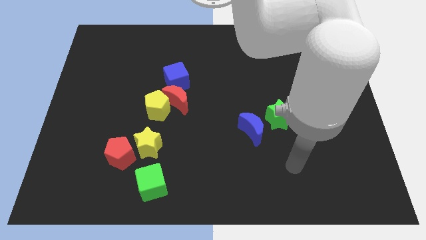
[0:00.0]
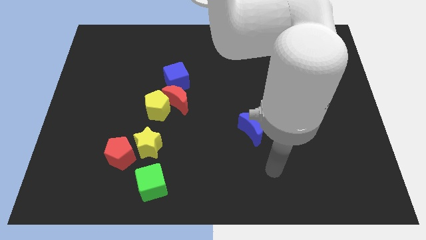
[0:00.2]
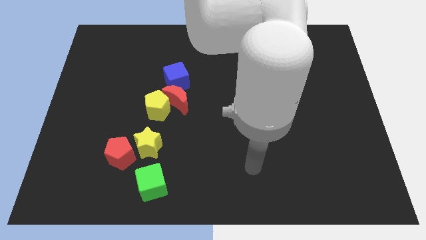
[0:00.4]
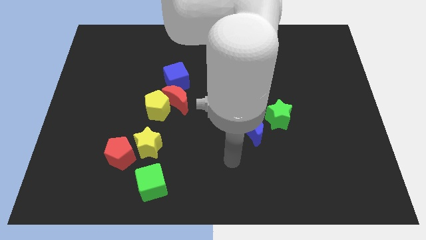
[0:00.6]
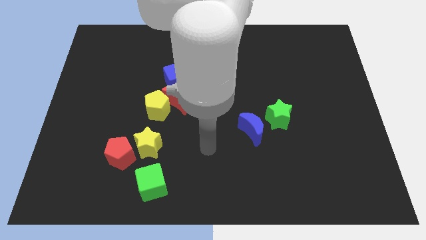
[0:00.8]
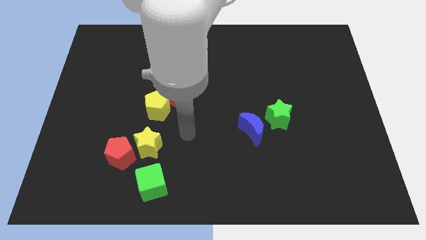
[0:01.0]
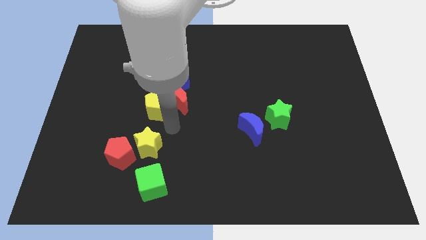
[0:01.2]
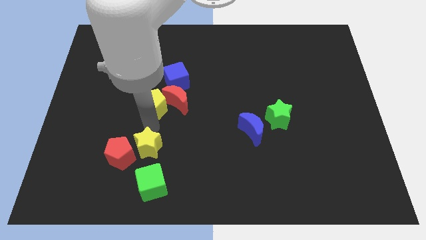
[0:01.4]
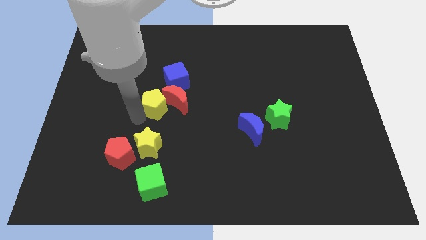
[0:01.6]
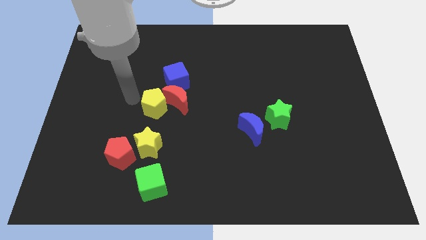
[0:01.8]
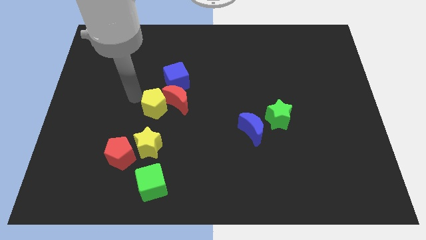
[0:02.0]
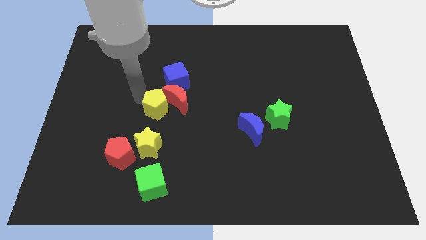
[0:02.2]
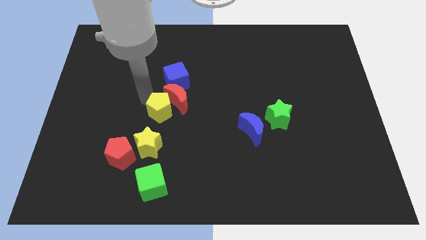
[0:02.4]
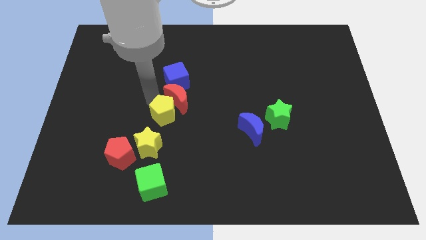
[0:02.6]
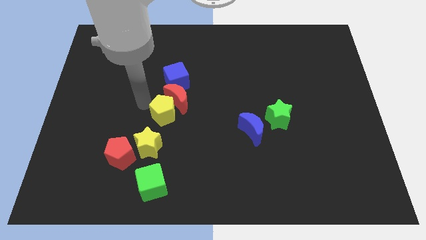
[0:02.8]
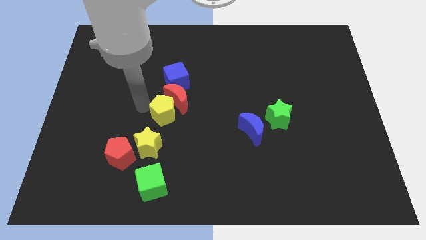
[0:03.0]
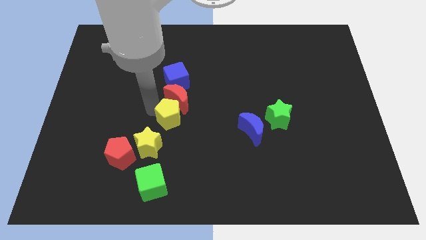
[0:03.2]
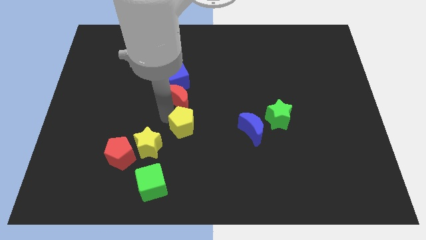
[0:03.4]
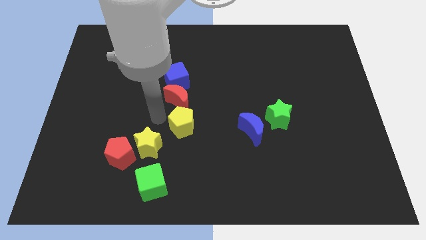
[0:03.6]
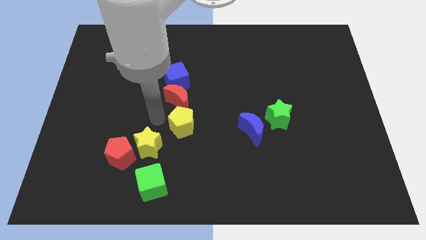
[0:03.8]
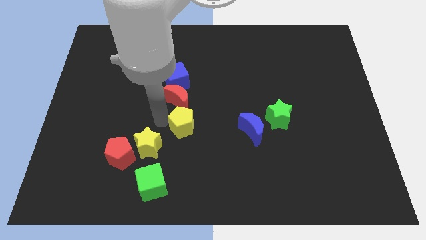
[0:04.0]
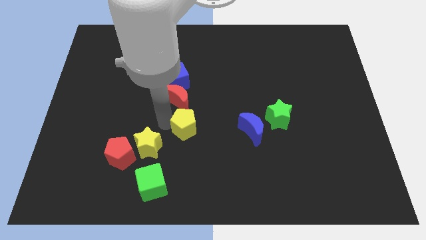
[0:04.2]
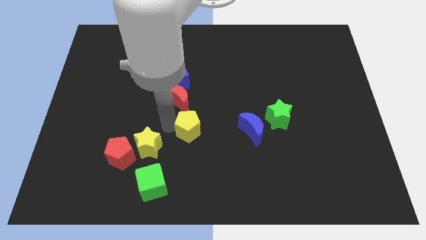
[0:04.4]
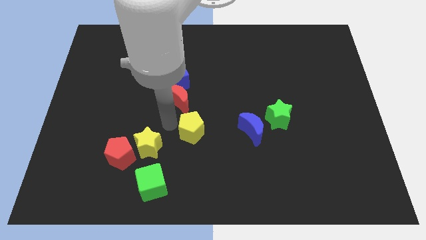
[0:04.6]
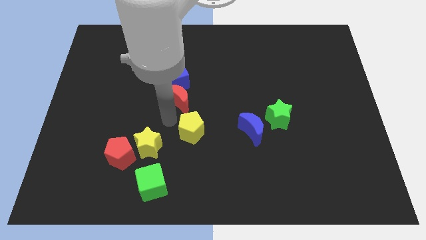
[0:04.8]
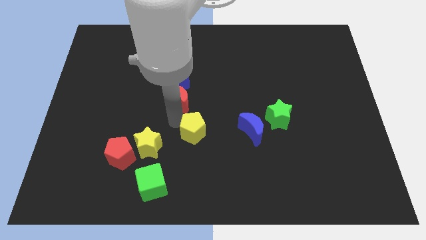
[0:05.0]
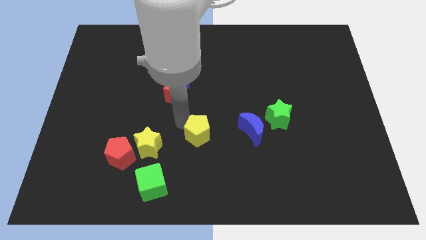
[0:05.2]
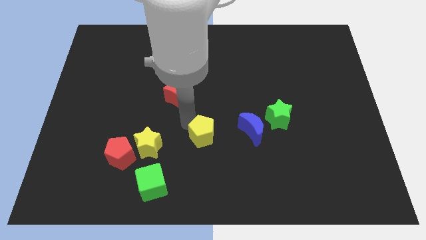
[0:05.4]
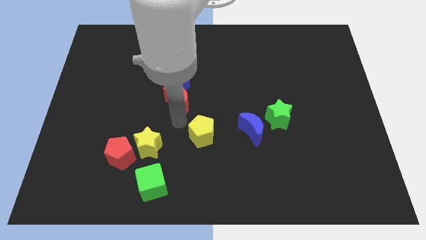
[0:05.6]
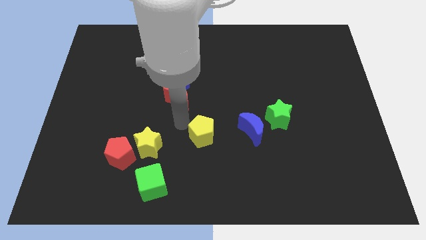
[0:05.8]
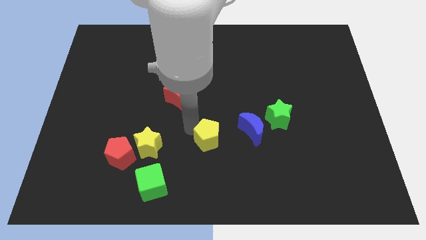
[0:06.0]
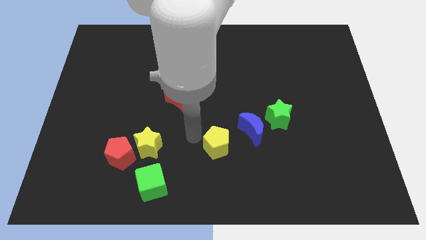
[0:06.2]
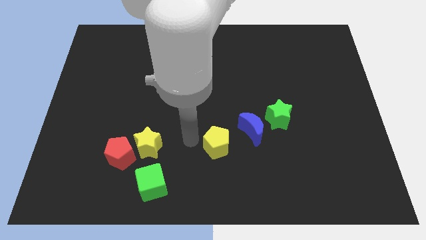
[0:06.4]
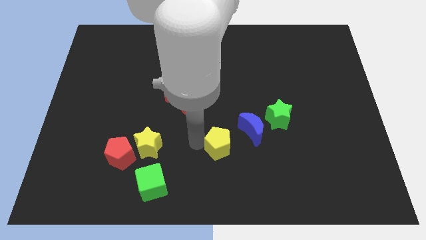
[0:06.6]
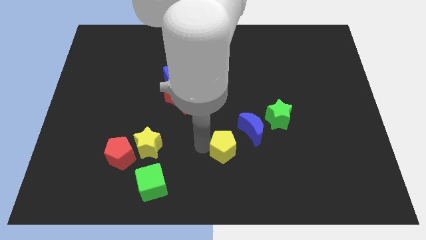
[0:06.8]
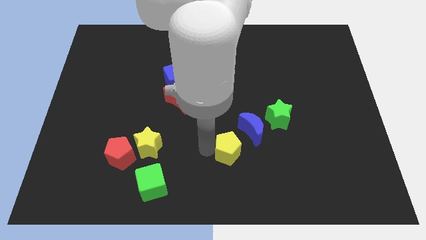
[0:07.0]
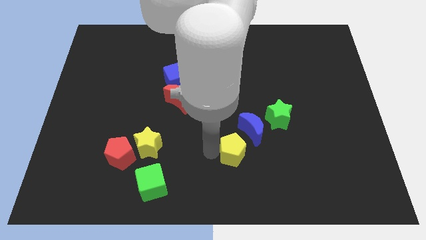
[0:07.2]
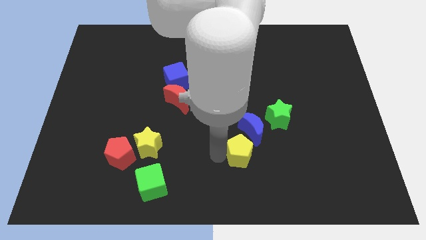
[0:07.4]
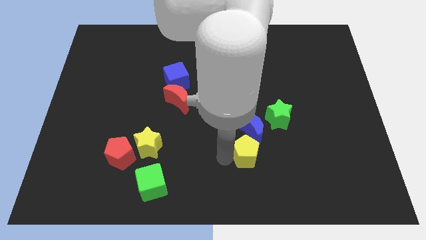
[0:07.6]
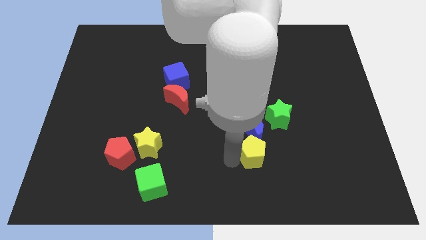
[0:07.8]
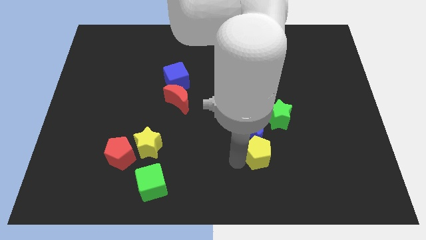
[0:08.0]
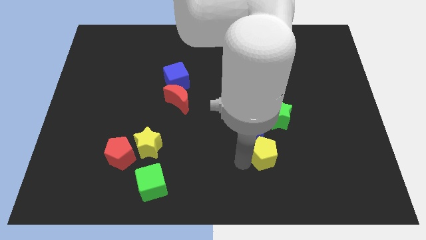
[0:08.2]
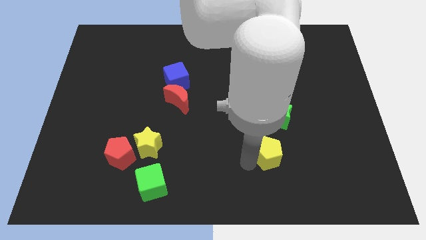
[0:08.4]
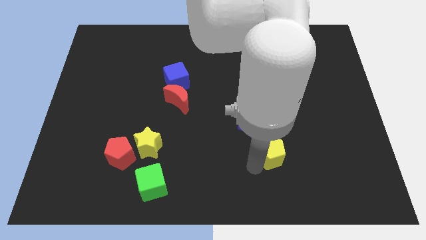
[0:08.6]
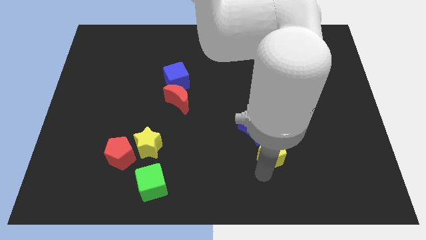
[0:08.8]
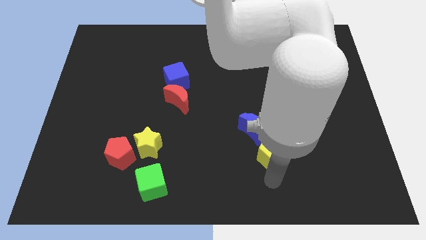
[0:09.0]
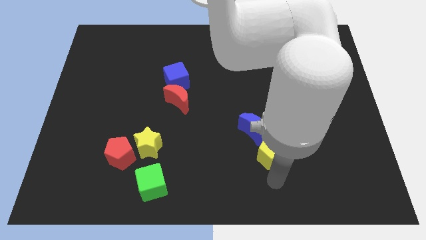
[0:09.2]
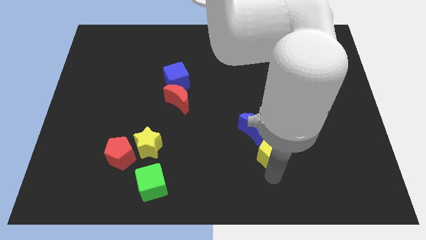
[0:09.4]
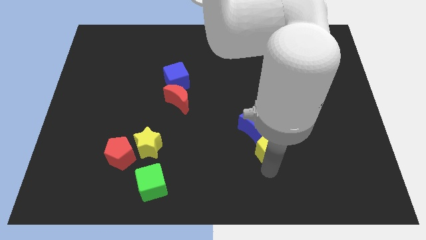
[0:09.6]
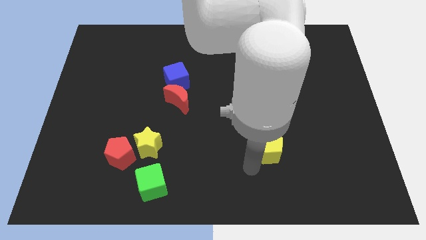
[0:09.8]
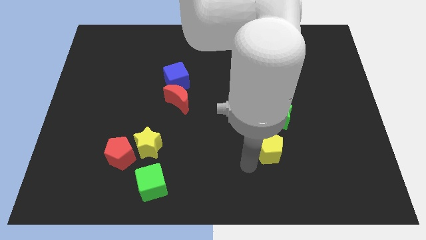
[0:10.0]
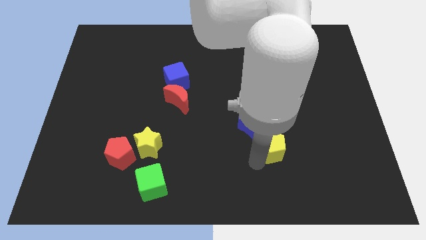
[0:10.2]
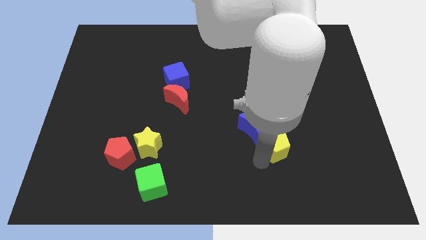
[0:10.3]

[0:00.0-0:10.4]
put the yellow pentagon right of the blue moon

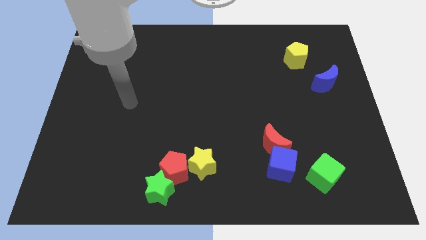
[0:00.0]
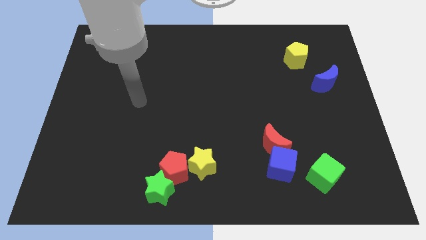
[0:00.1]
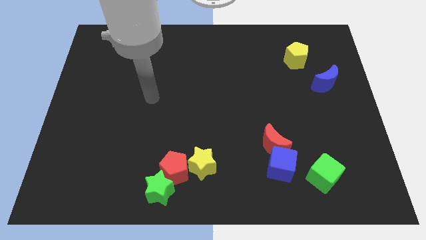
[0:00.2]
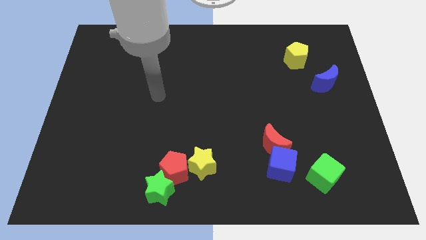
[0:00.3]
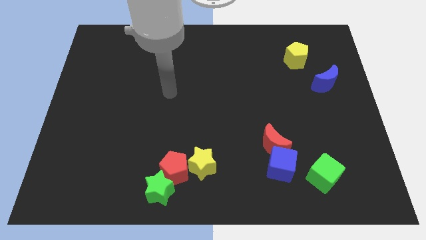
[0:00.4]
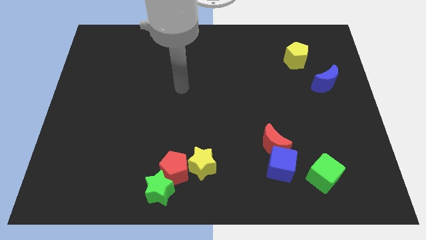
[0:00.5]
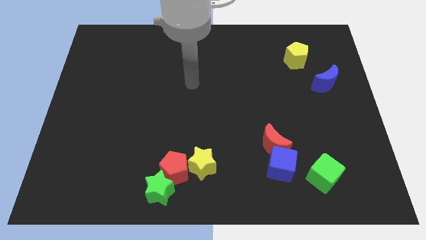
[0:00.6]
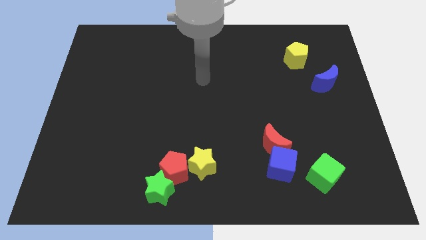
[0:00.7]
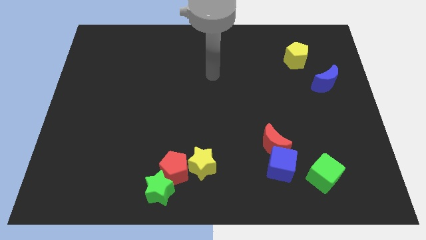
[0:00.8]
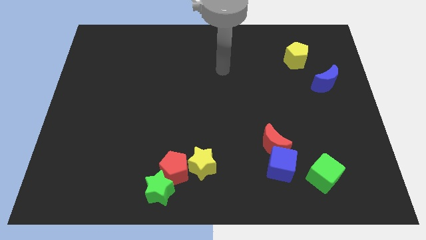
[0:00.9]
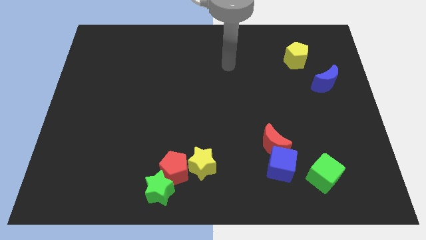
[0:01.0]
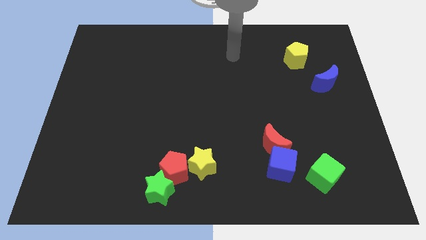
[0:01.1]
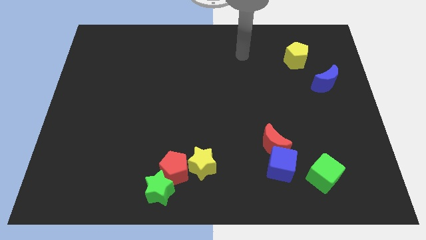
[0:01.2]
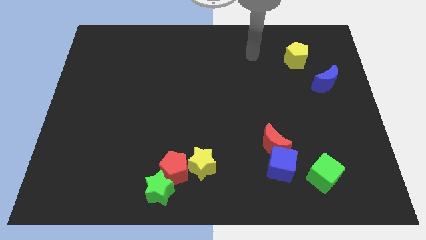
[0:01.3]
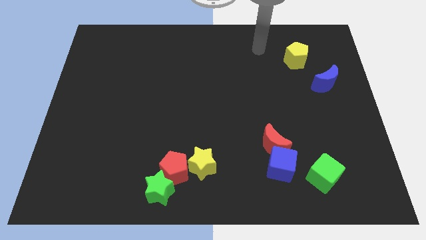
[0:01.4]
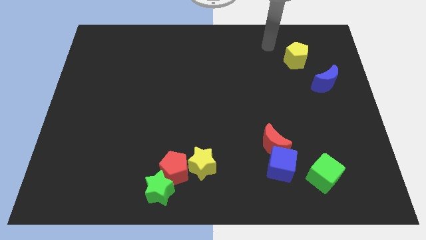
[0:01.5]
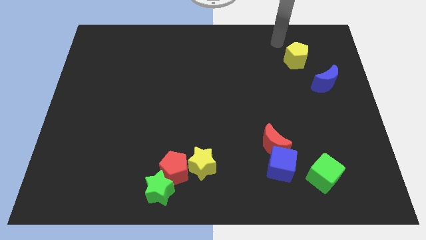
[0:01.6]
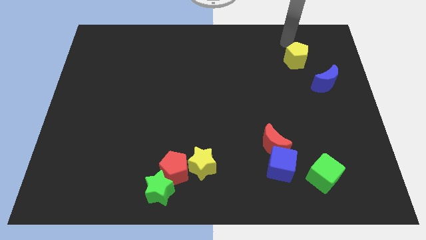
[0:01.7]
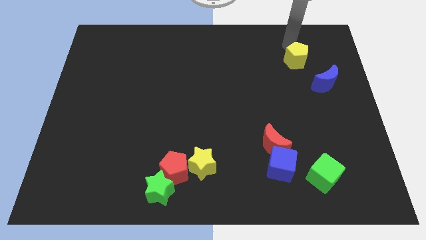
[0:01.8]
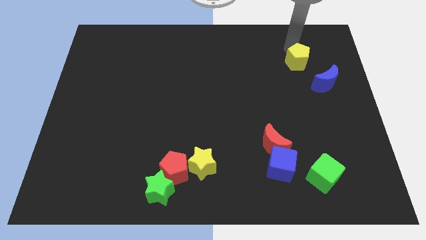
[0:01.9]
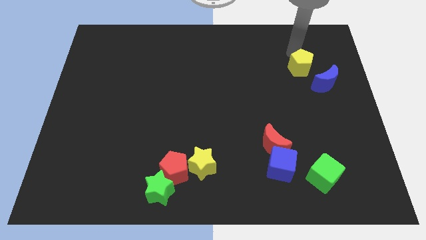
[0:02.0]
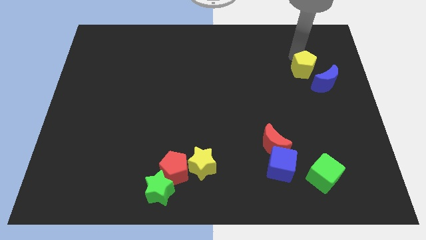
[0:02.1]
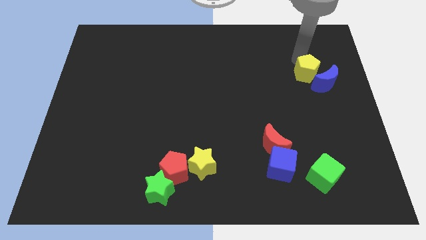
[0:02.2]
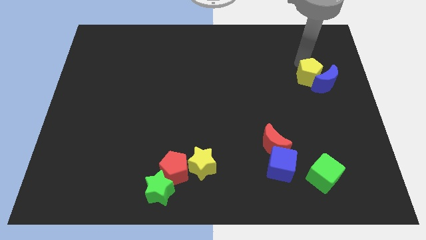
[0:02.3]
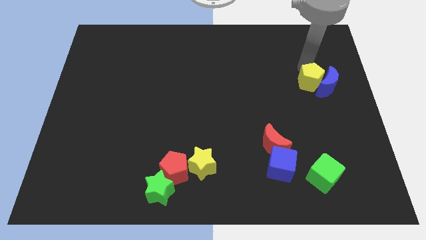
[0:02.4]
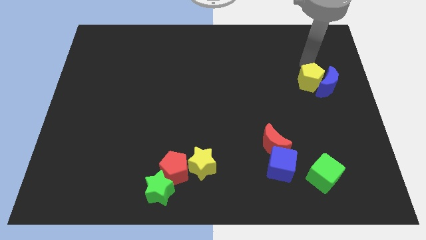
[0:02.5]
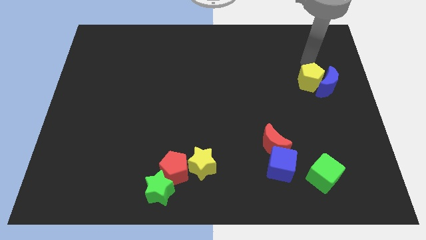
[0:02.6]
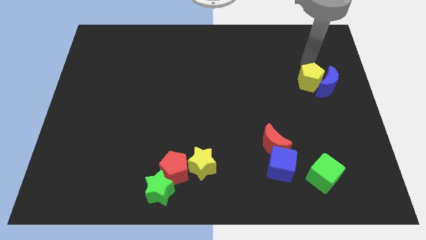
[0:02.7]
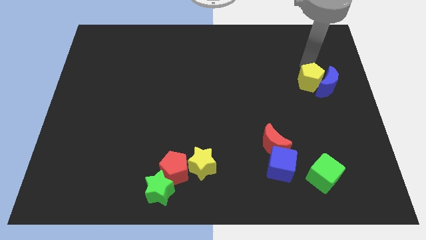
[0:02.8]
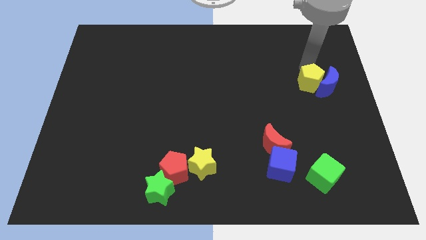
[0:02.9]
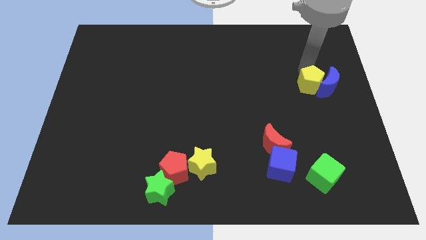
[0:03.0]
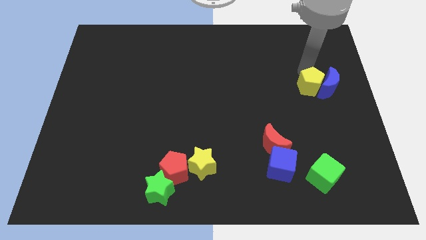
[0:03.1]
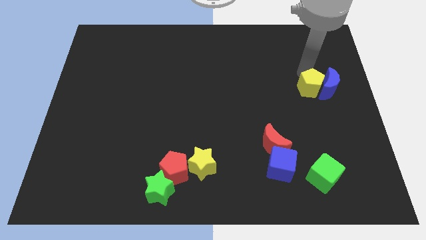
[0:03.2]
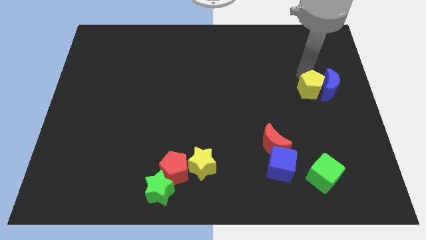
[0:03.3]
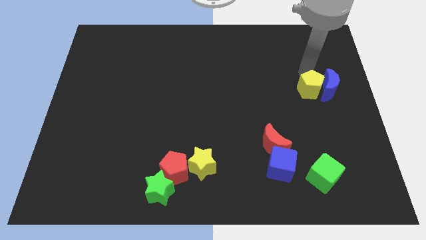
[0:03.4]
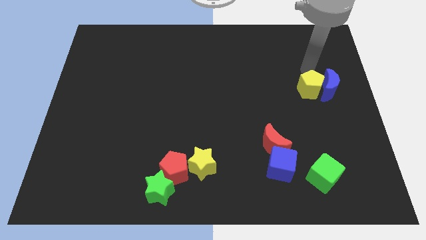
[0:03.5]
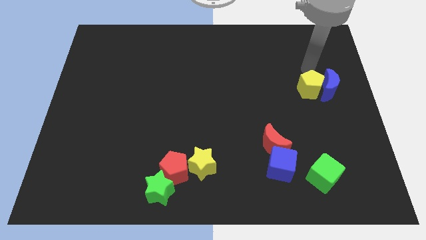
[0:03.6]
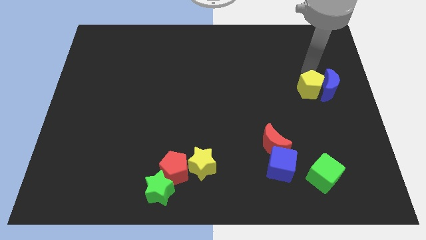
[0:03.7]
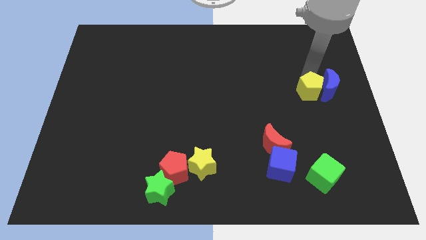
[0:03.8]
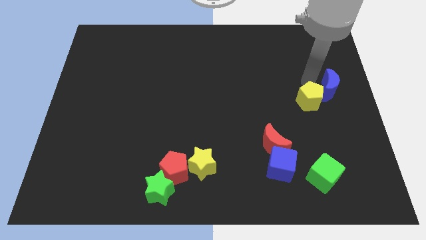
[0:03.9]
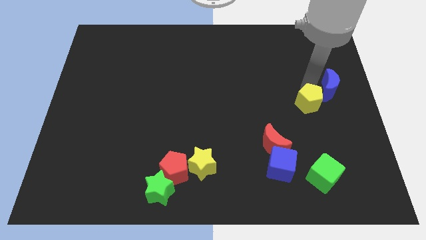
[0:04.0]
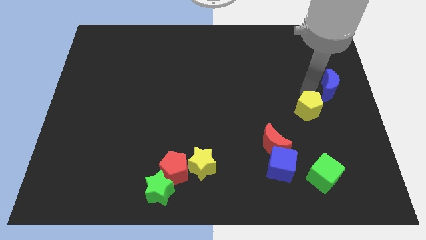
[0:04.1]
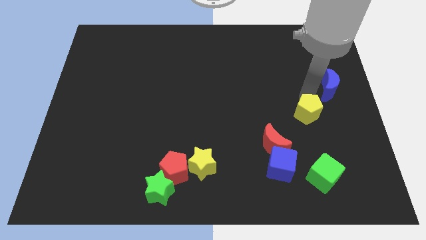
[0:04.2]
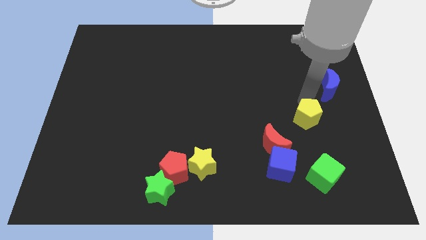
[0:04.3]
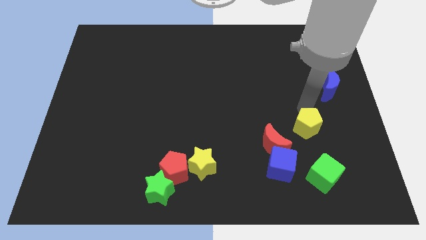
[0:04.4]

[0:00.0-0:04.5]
push the yellow pentagon right of the red moon
